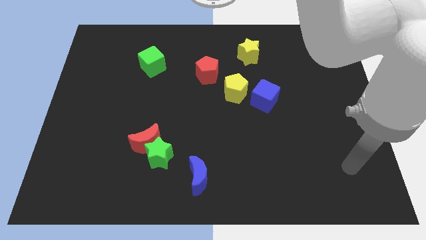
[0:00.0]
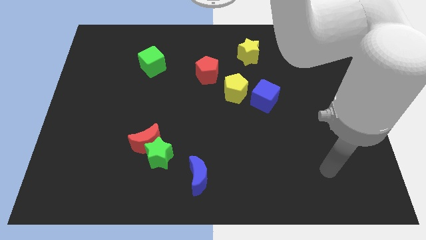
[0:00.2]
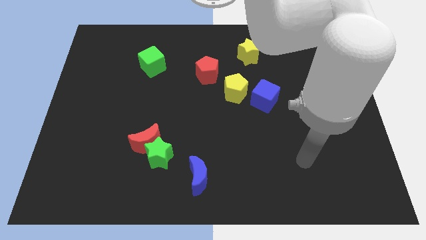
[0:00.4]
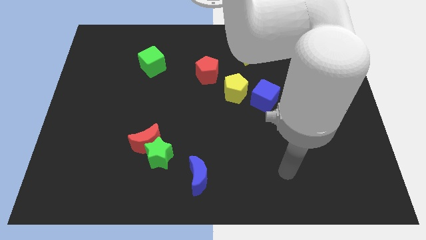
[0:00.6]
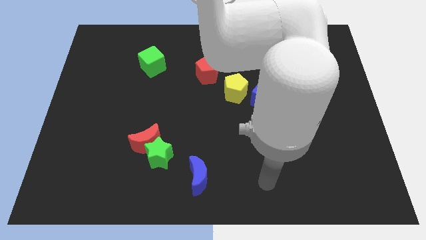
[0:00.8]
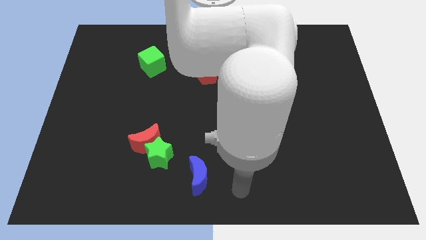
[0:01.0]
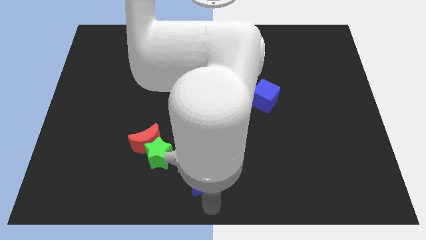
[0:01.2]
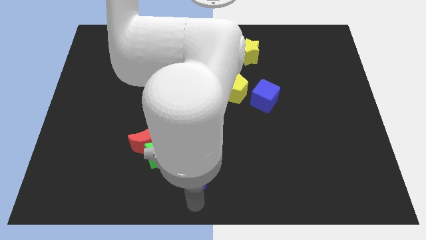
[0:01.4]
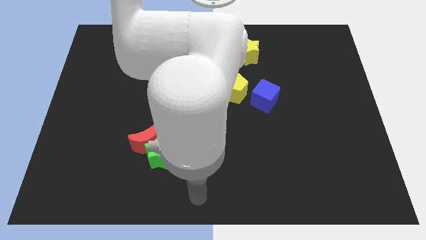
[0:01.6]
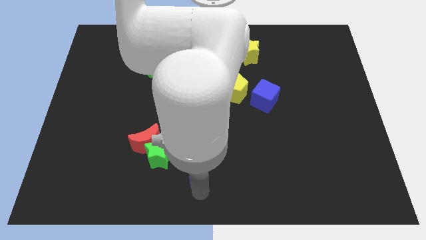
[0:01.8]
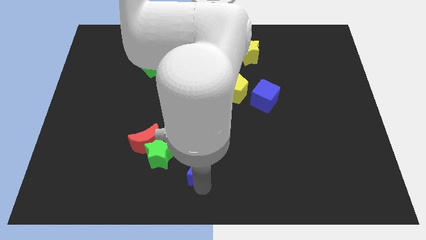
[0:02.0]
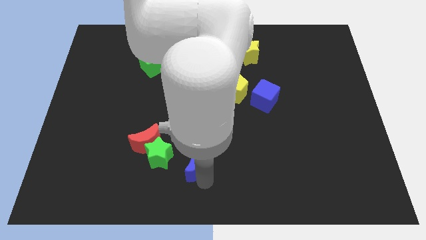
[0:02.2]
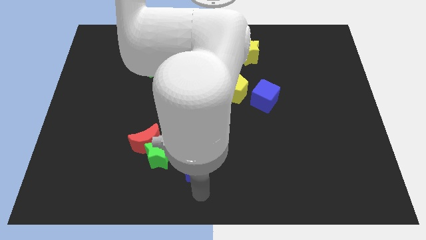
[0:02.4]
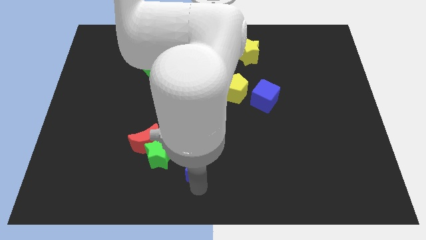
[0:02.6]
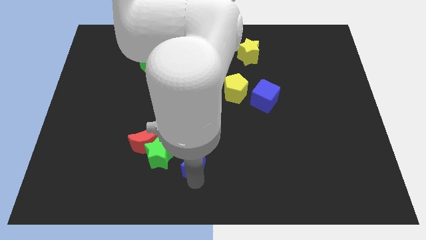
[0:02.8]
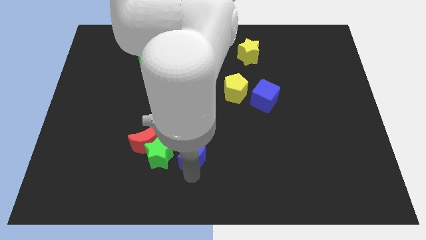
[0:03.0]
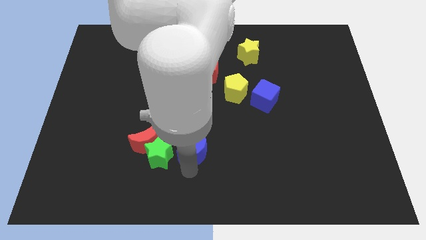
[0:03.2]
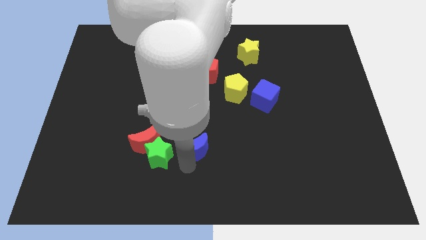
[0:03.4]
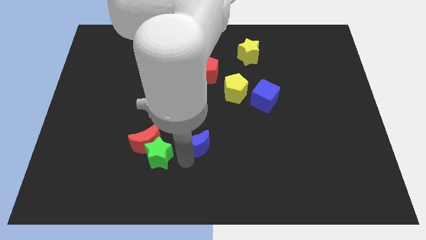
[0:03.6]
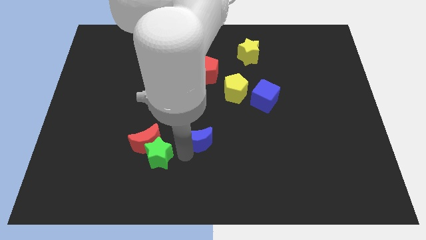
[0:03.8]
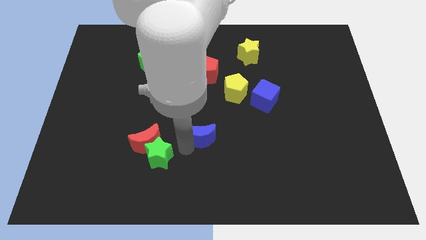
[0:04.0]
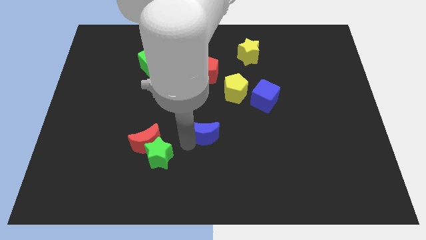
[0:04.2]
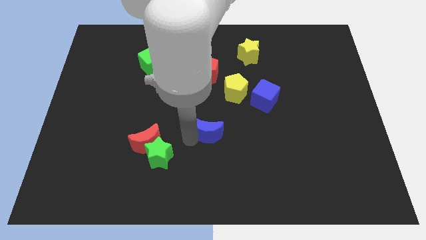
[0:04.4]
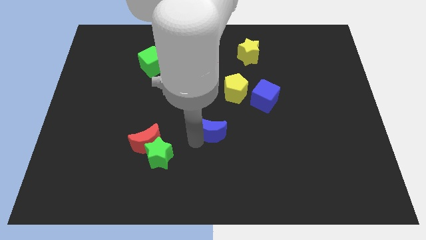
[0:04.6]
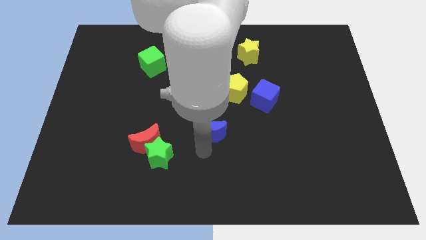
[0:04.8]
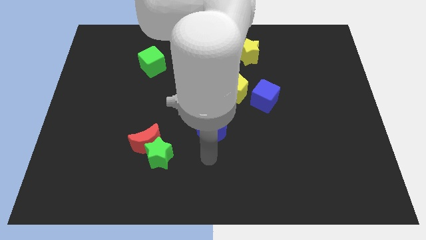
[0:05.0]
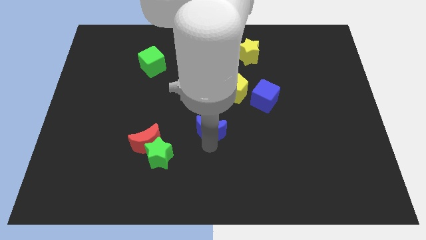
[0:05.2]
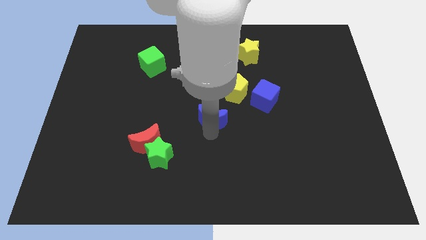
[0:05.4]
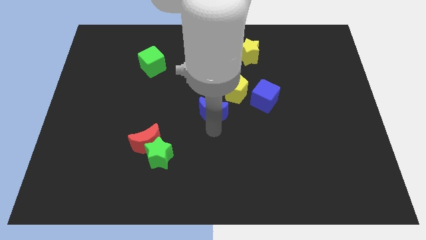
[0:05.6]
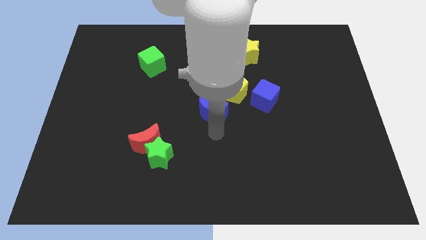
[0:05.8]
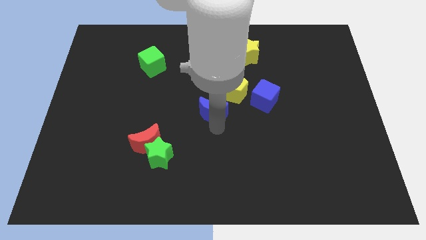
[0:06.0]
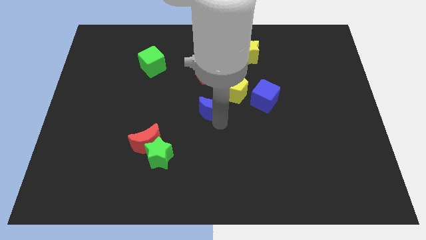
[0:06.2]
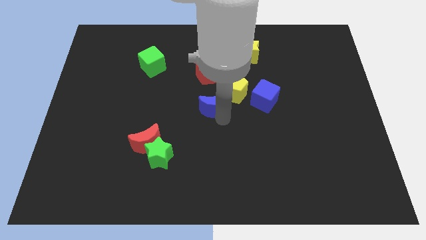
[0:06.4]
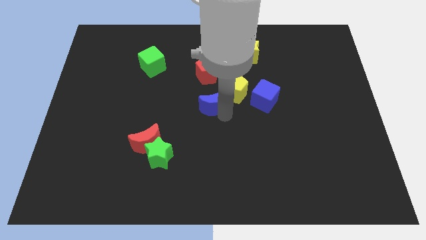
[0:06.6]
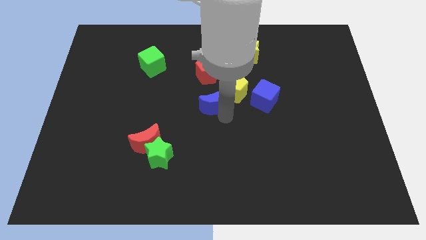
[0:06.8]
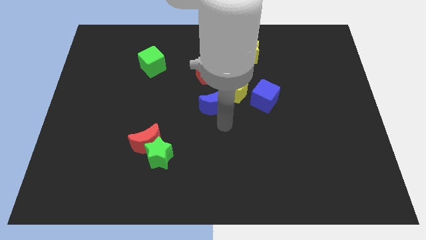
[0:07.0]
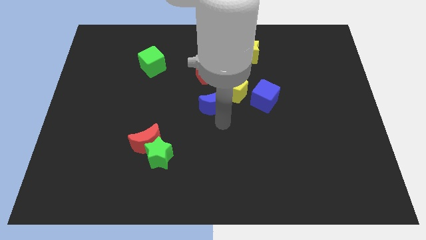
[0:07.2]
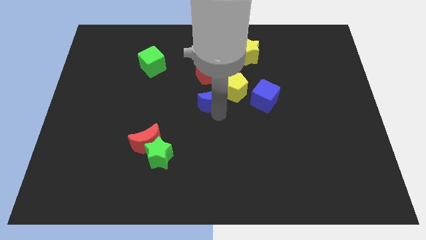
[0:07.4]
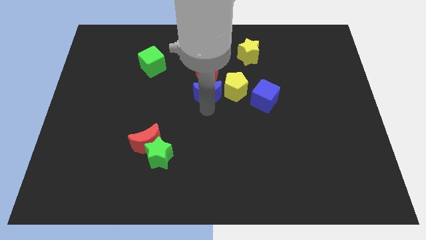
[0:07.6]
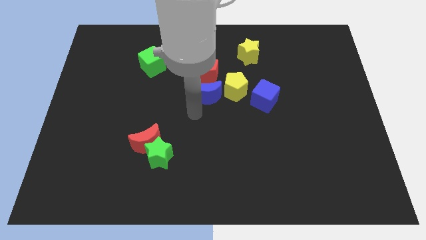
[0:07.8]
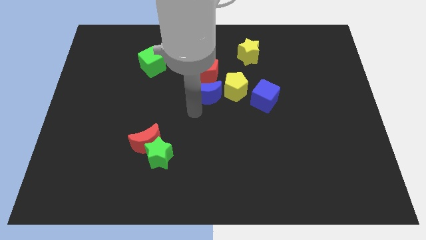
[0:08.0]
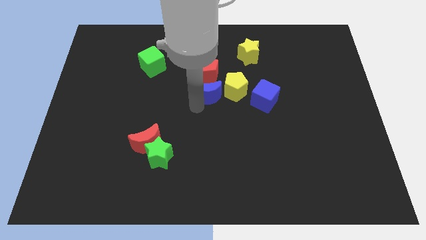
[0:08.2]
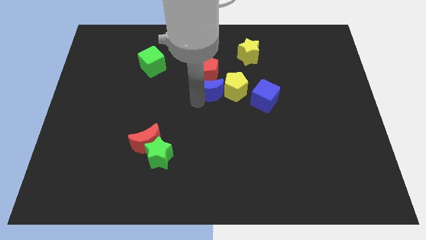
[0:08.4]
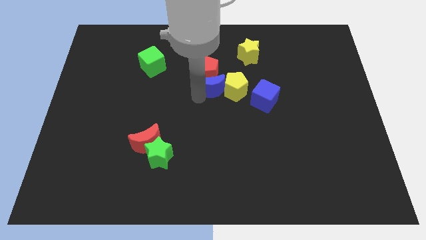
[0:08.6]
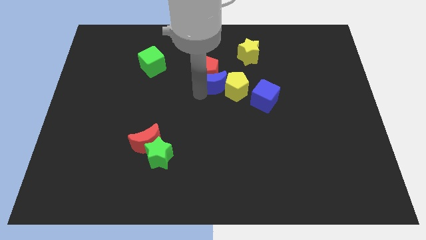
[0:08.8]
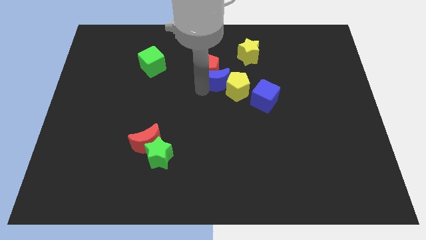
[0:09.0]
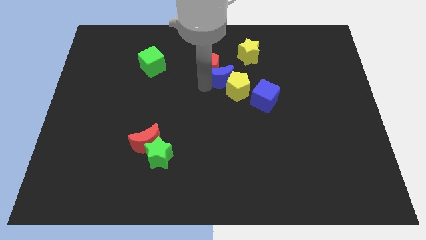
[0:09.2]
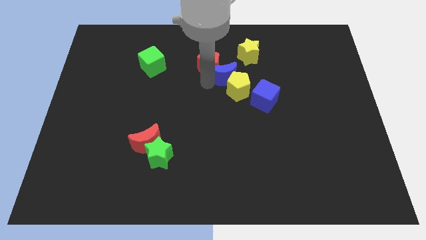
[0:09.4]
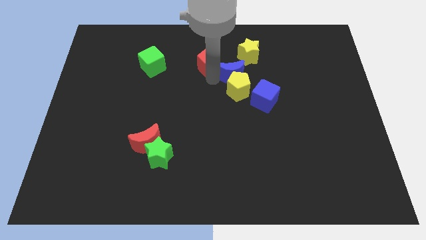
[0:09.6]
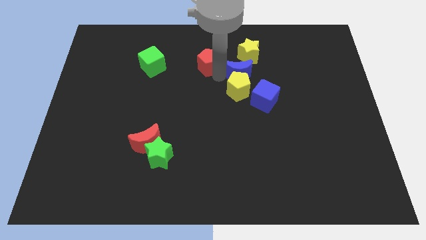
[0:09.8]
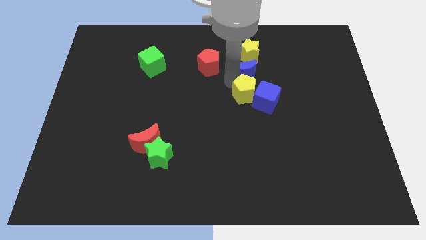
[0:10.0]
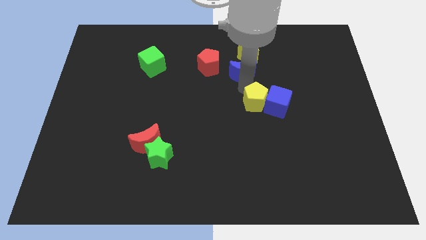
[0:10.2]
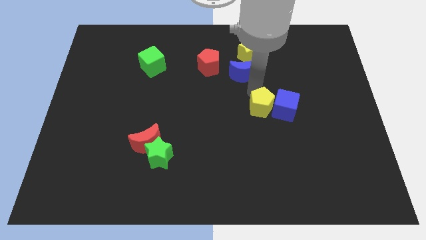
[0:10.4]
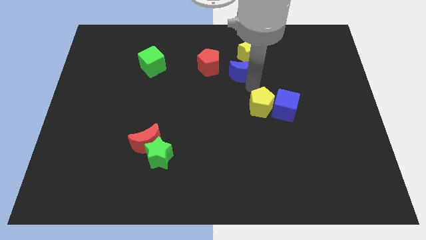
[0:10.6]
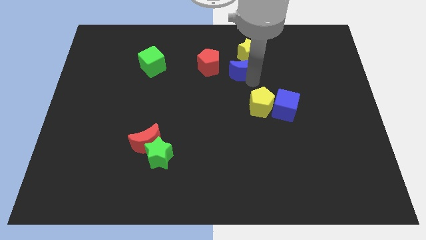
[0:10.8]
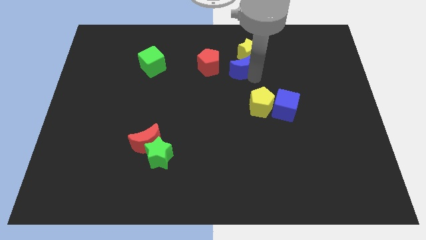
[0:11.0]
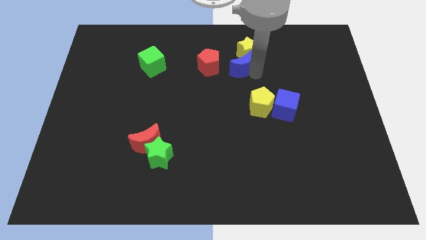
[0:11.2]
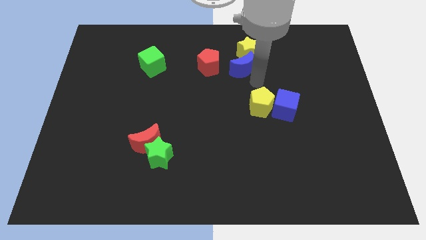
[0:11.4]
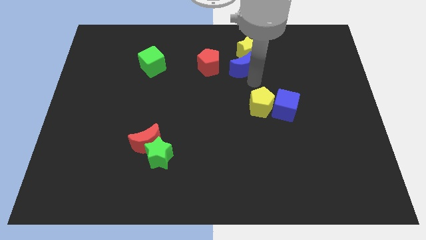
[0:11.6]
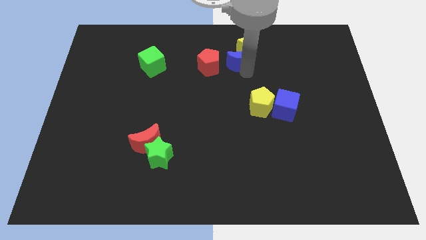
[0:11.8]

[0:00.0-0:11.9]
slide the blue moon to the top right of the red pentagon

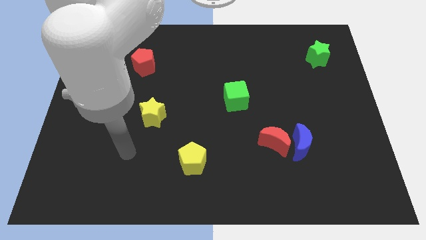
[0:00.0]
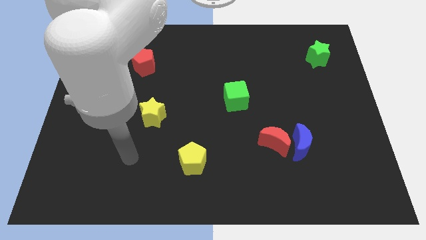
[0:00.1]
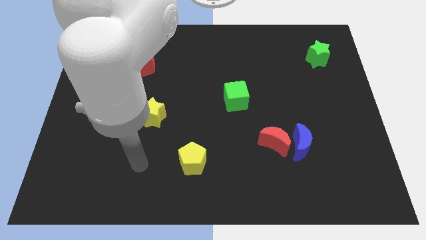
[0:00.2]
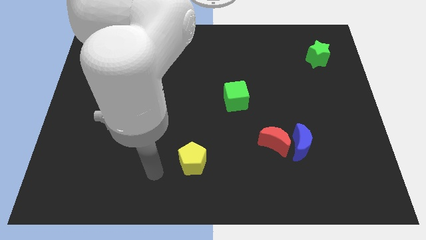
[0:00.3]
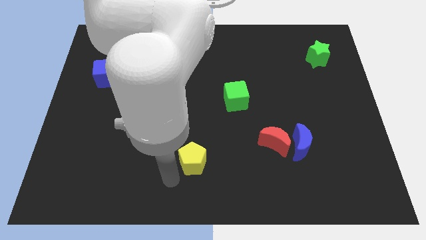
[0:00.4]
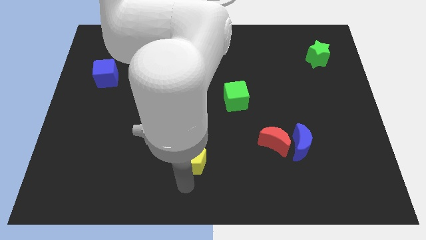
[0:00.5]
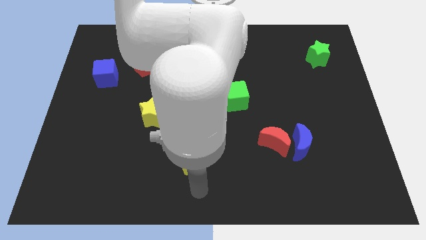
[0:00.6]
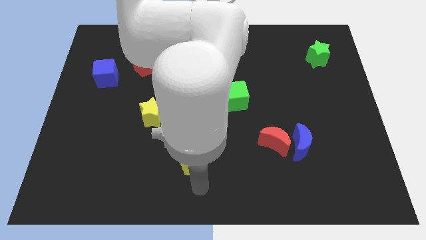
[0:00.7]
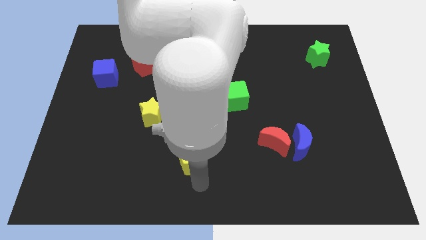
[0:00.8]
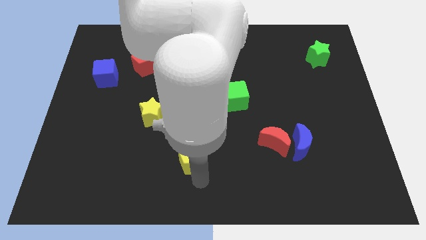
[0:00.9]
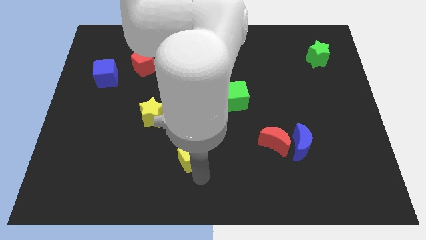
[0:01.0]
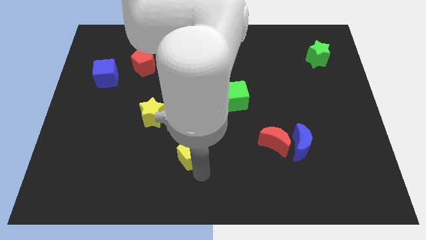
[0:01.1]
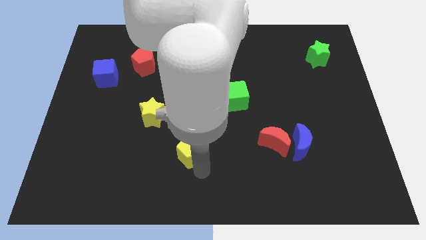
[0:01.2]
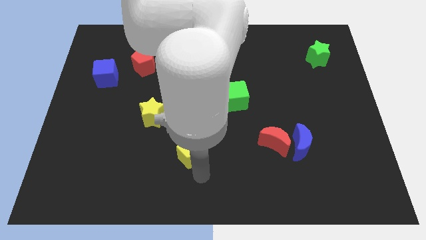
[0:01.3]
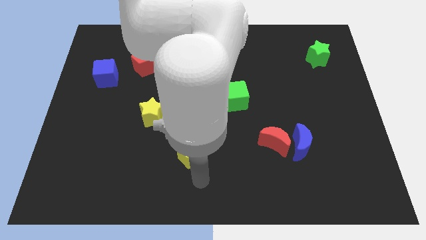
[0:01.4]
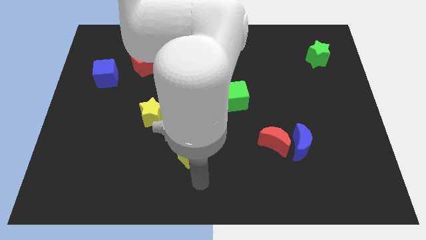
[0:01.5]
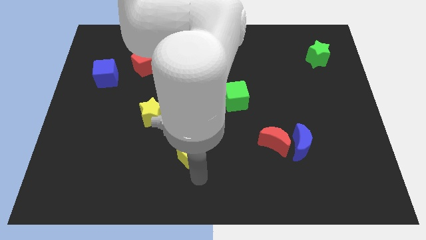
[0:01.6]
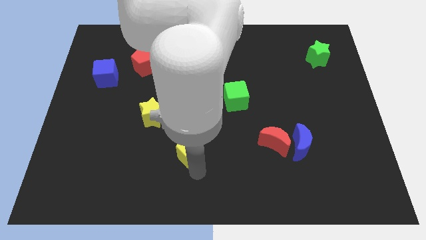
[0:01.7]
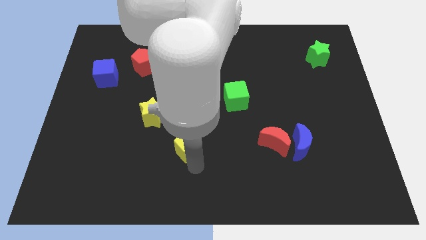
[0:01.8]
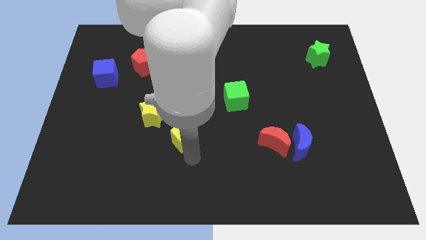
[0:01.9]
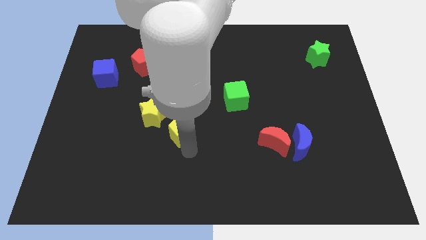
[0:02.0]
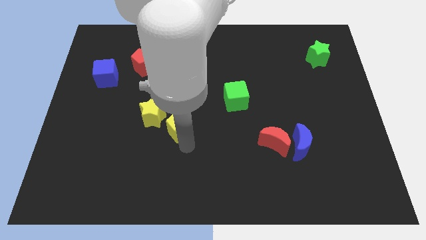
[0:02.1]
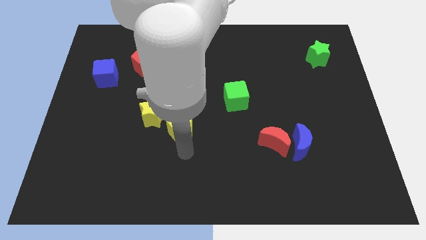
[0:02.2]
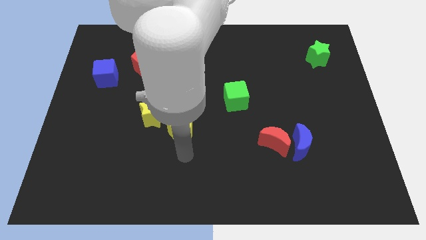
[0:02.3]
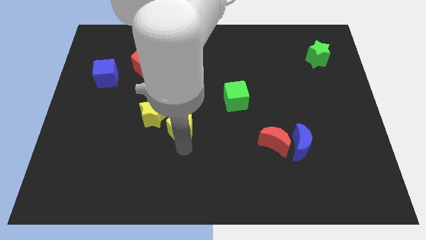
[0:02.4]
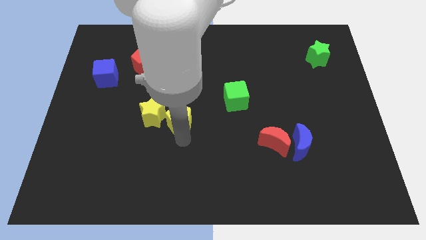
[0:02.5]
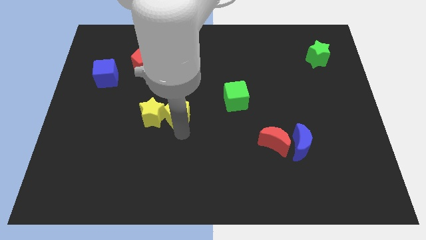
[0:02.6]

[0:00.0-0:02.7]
push the yellow pentagon to the top right of the yellow star
